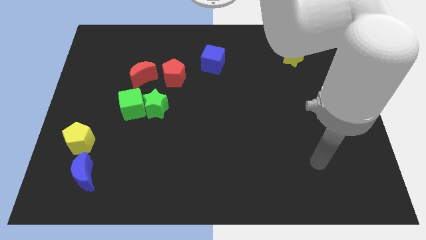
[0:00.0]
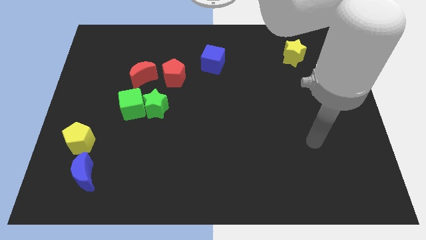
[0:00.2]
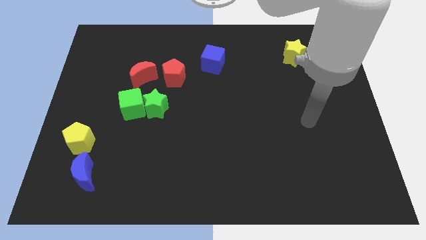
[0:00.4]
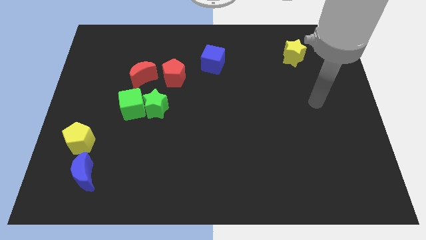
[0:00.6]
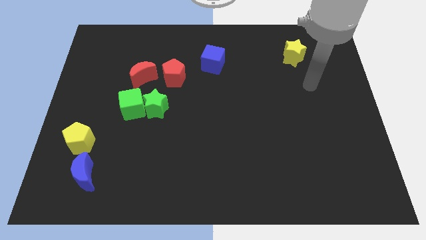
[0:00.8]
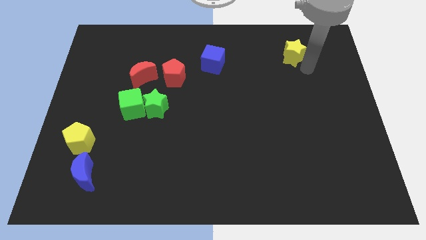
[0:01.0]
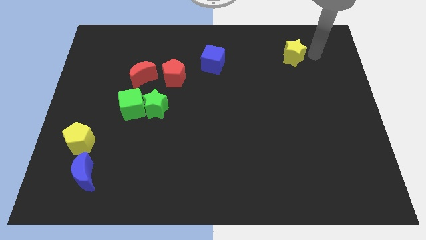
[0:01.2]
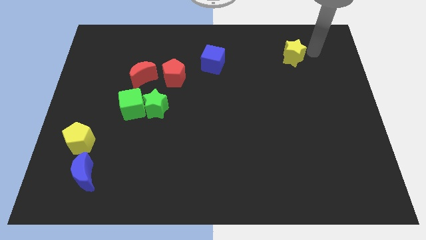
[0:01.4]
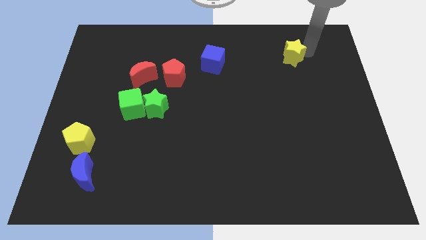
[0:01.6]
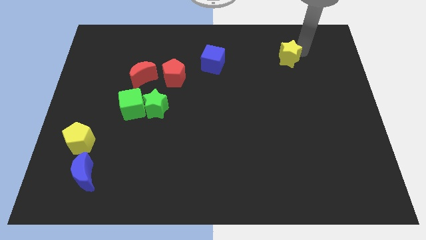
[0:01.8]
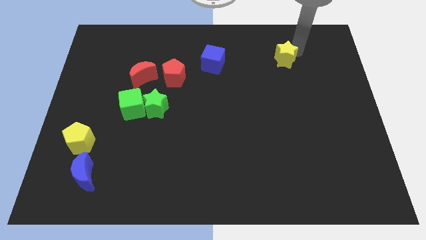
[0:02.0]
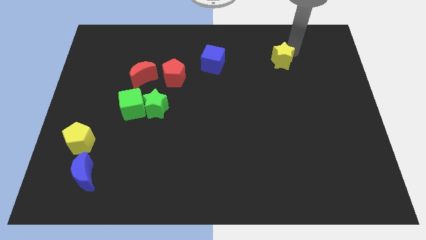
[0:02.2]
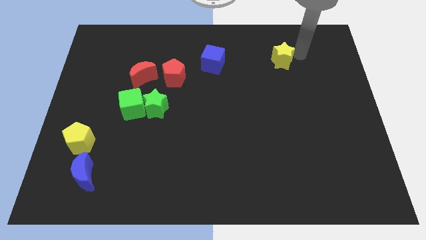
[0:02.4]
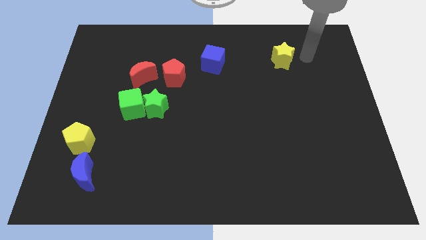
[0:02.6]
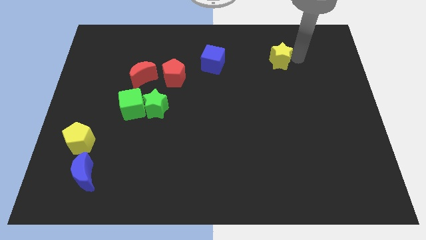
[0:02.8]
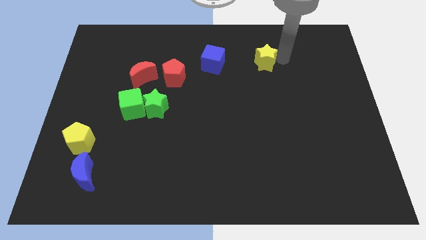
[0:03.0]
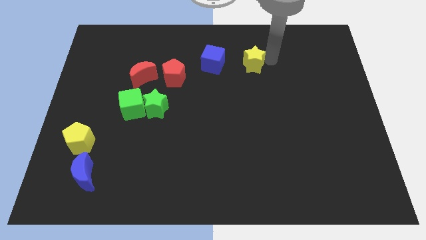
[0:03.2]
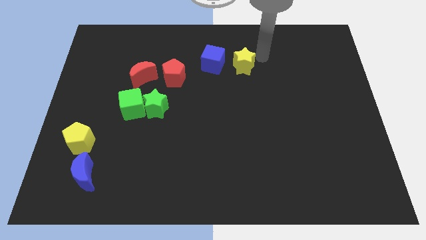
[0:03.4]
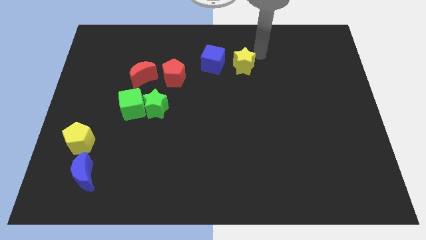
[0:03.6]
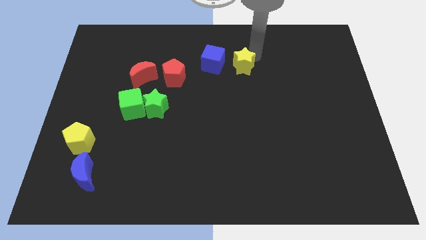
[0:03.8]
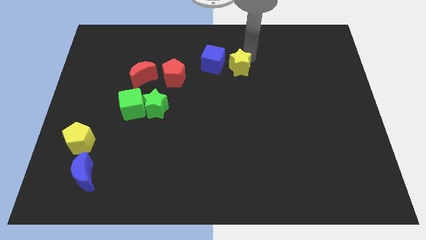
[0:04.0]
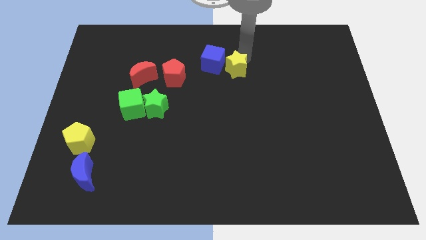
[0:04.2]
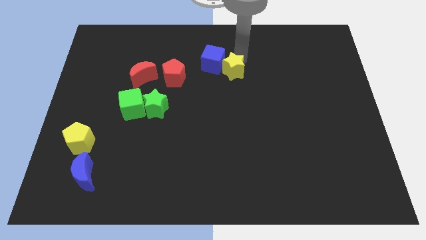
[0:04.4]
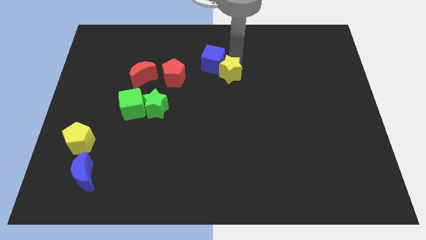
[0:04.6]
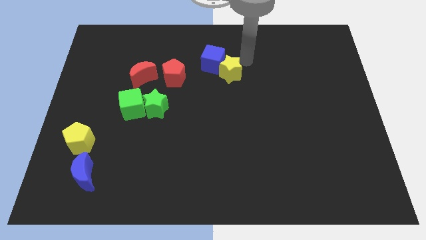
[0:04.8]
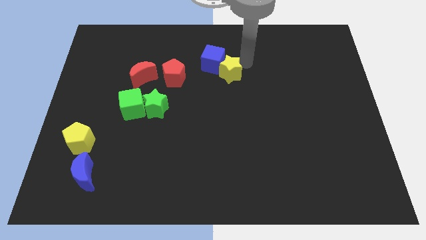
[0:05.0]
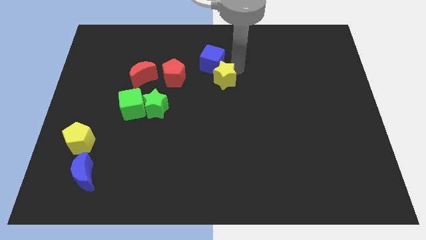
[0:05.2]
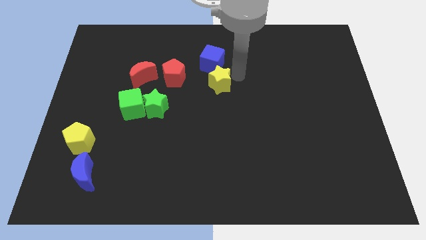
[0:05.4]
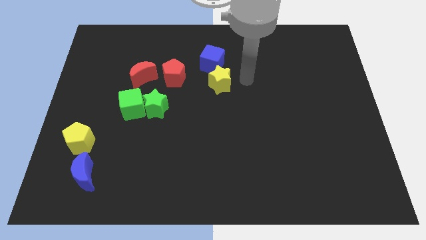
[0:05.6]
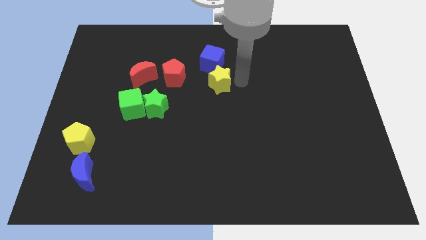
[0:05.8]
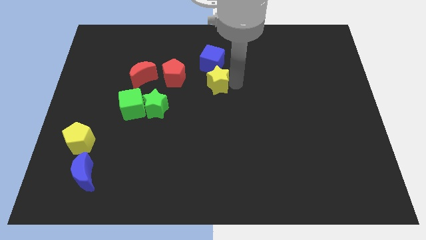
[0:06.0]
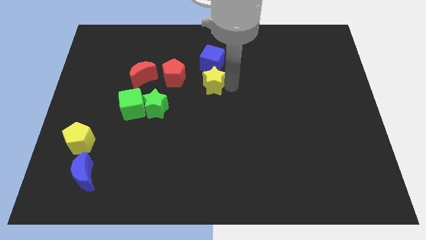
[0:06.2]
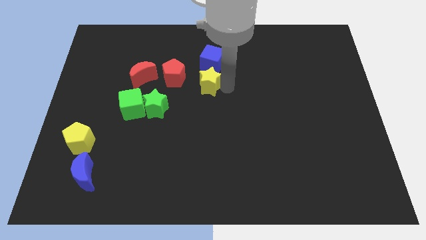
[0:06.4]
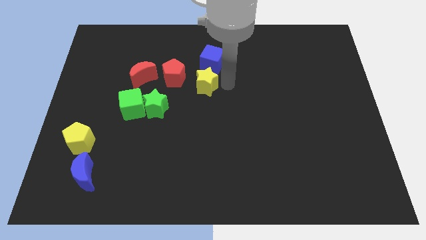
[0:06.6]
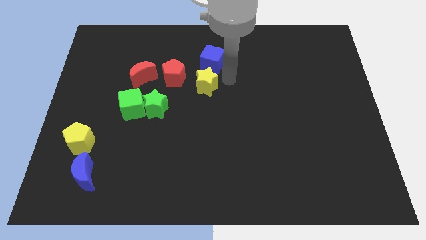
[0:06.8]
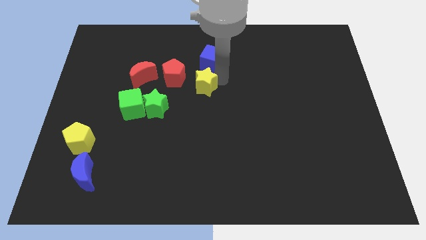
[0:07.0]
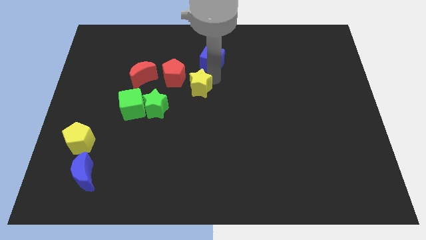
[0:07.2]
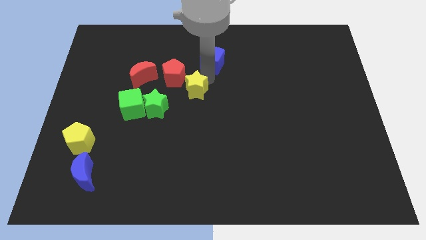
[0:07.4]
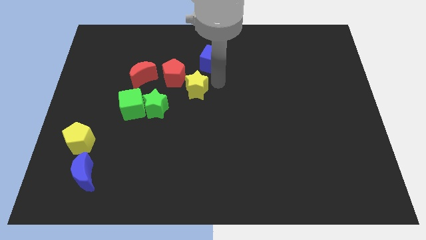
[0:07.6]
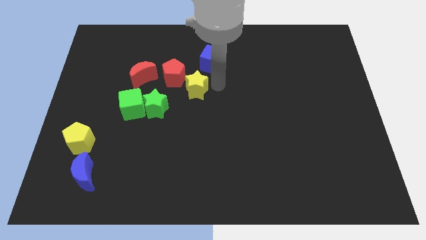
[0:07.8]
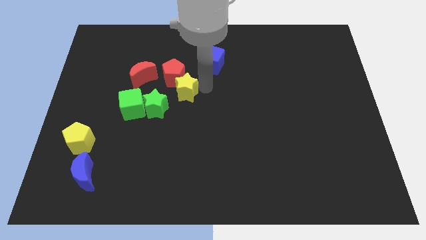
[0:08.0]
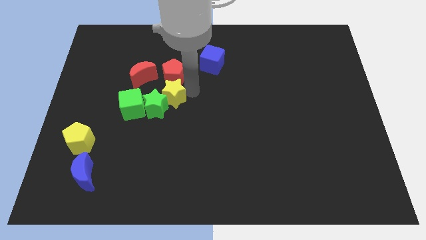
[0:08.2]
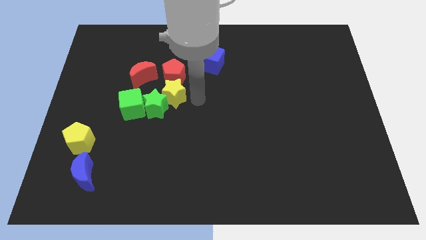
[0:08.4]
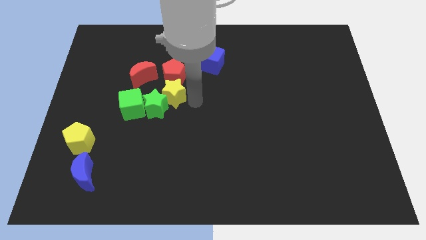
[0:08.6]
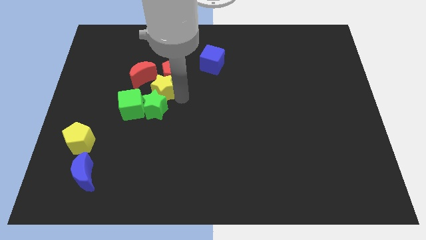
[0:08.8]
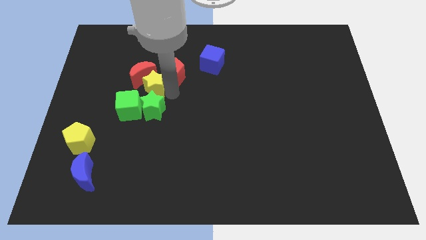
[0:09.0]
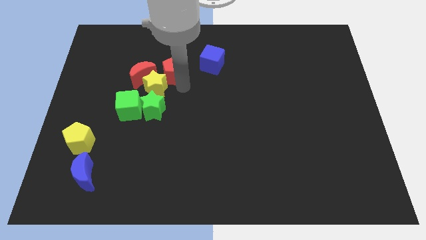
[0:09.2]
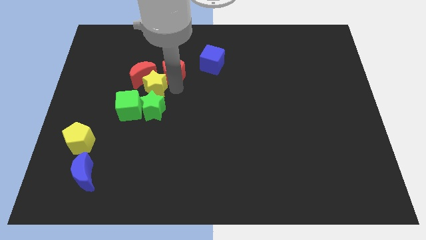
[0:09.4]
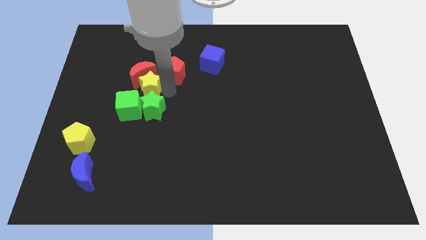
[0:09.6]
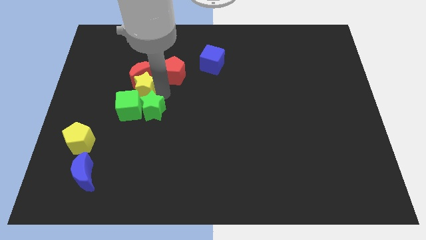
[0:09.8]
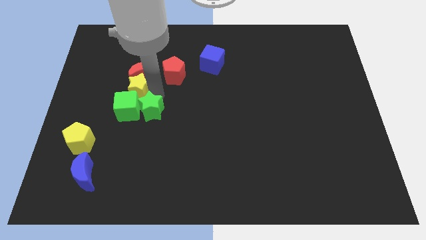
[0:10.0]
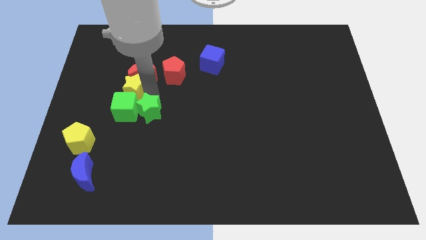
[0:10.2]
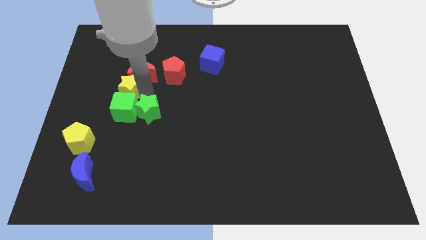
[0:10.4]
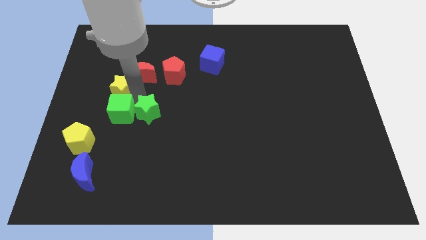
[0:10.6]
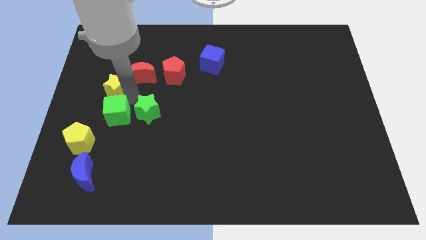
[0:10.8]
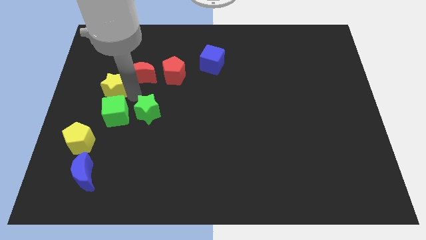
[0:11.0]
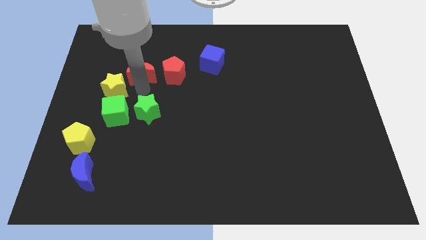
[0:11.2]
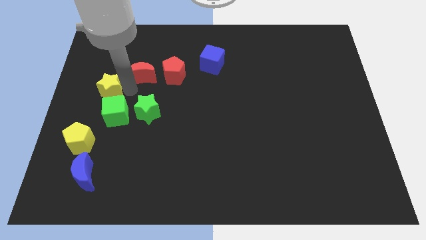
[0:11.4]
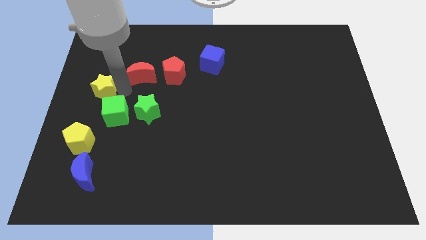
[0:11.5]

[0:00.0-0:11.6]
slide the yellow star to the left side

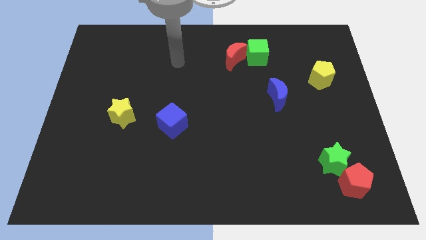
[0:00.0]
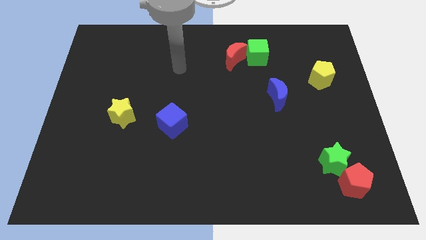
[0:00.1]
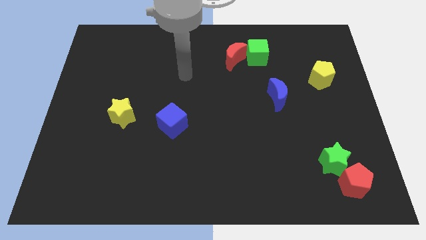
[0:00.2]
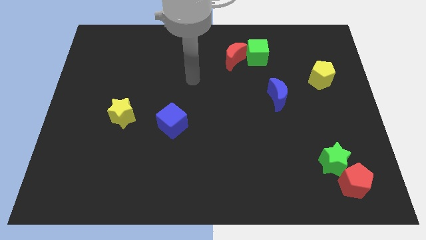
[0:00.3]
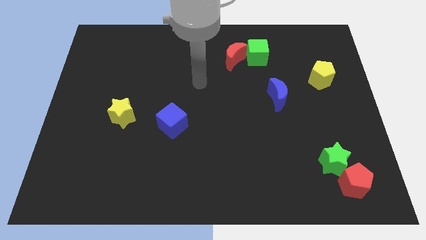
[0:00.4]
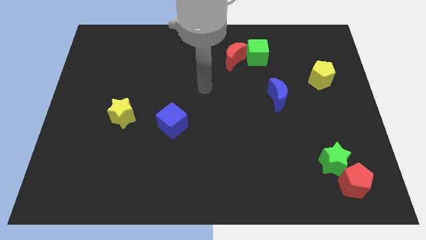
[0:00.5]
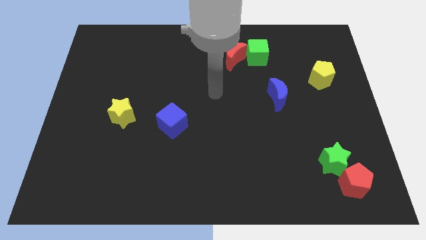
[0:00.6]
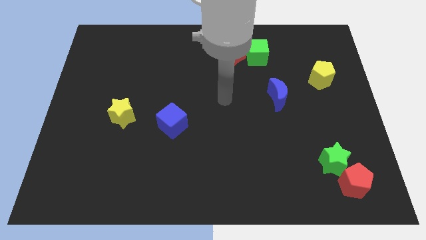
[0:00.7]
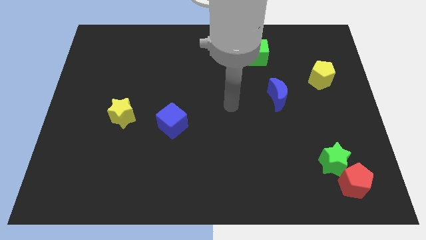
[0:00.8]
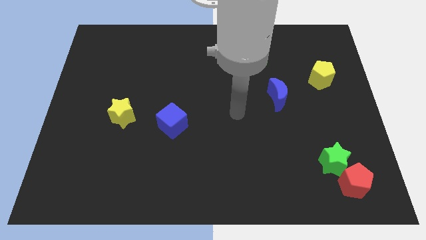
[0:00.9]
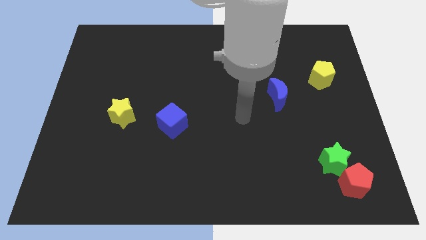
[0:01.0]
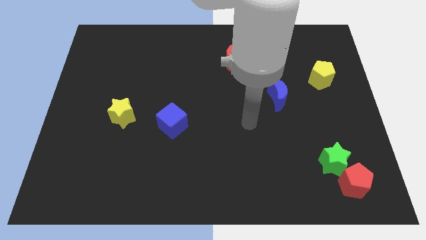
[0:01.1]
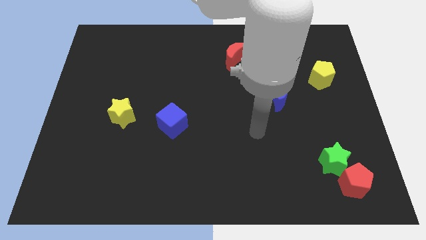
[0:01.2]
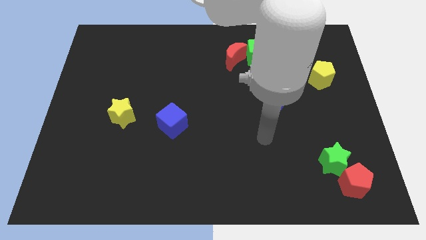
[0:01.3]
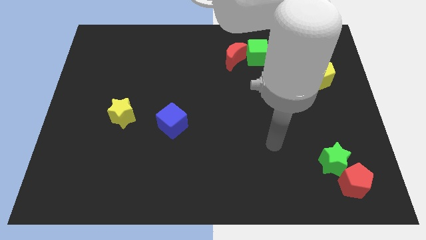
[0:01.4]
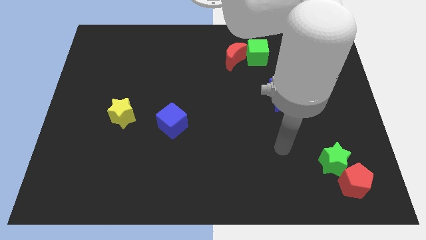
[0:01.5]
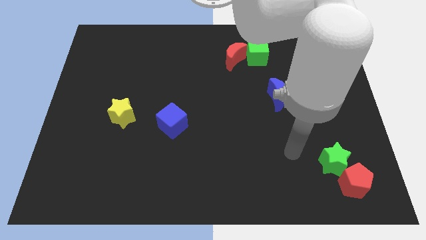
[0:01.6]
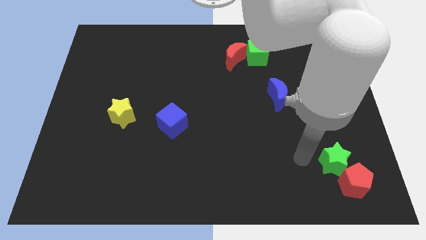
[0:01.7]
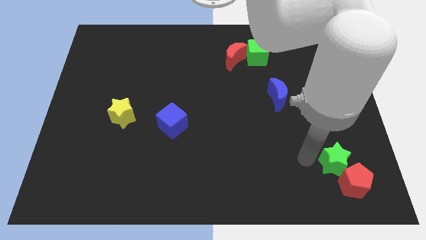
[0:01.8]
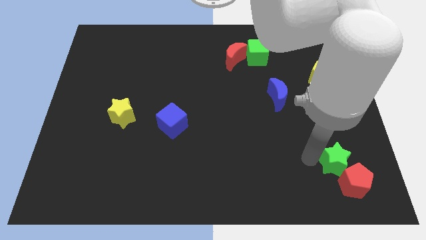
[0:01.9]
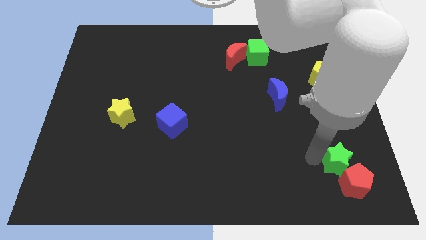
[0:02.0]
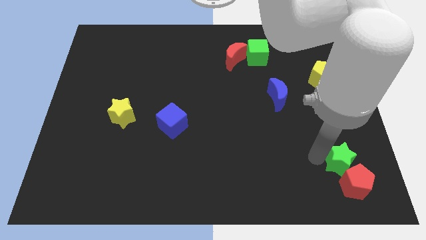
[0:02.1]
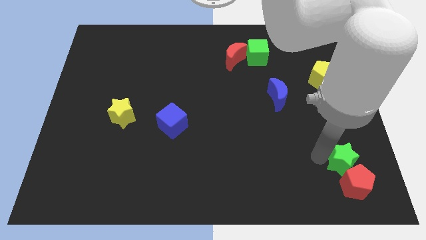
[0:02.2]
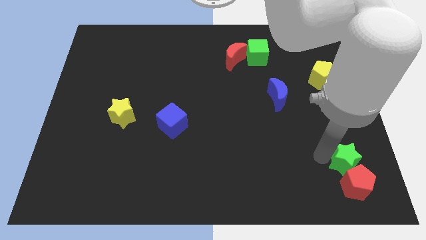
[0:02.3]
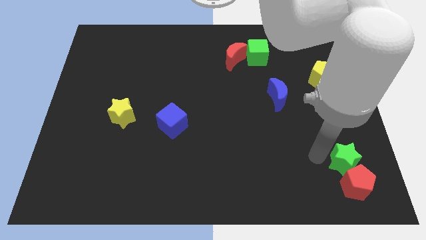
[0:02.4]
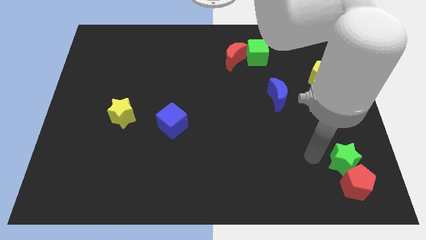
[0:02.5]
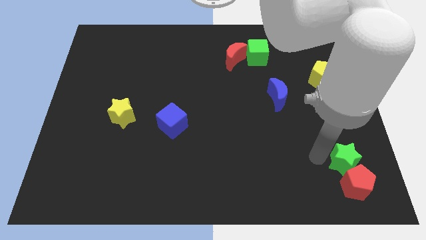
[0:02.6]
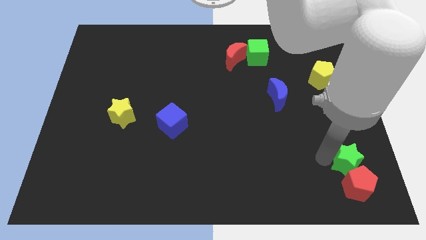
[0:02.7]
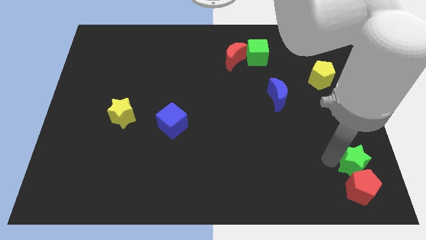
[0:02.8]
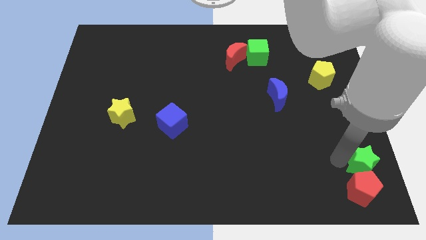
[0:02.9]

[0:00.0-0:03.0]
put the green star to the bottom right corner
